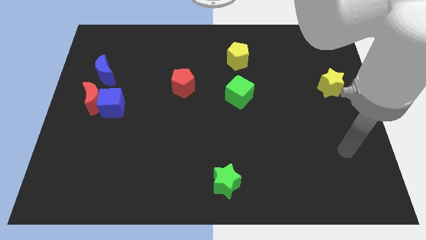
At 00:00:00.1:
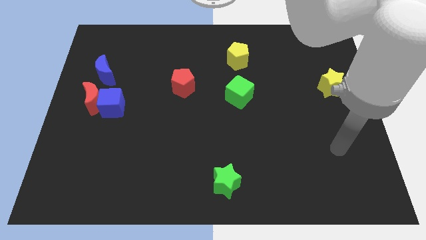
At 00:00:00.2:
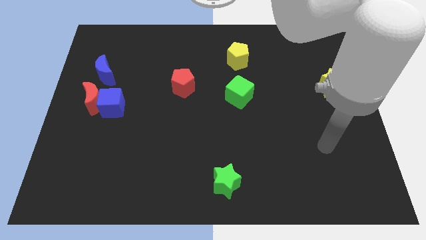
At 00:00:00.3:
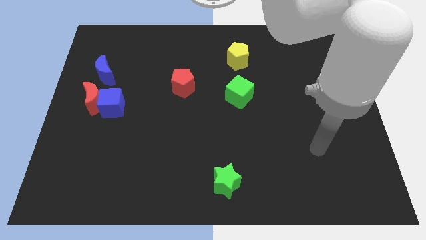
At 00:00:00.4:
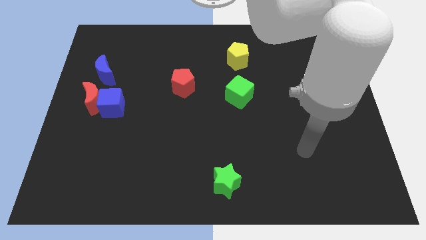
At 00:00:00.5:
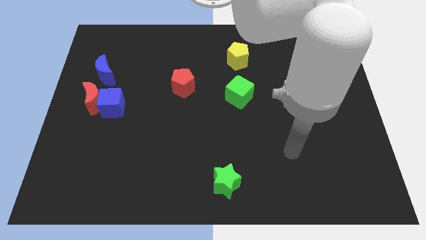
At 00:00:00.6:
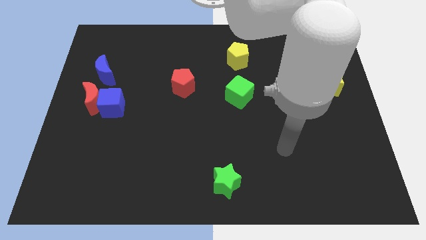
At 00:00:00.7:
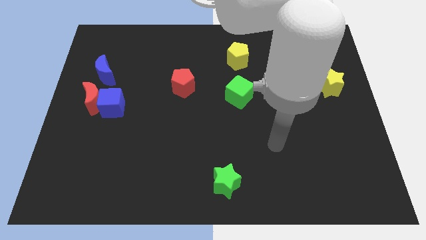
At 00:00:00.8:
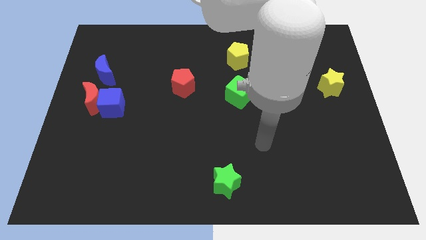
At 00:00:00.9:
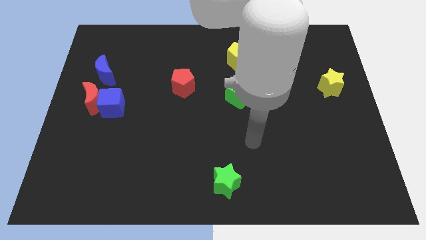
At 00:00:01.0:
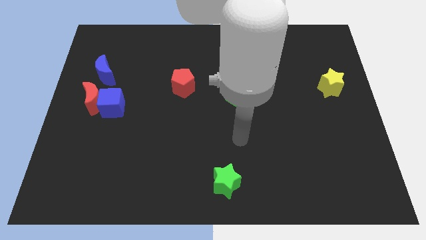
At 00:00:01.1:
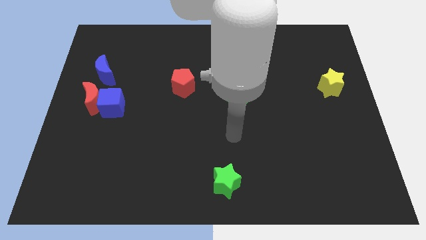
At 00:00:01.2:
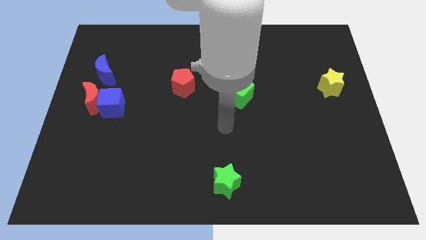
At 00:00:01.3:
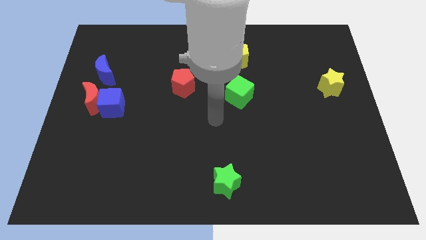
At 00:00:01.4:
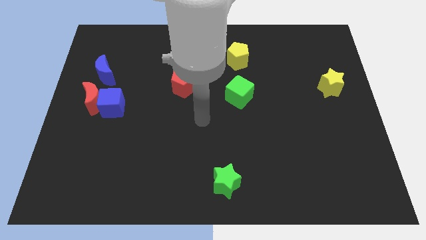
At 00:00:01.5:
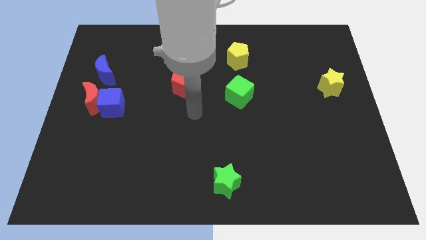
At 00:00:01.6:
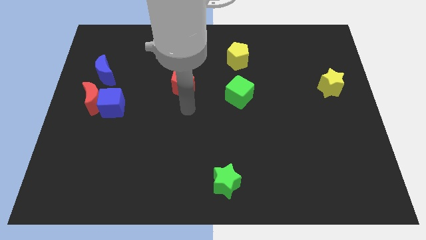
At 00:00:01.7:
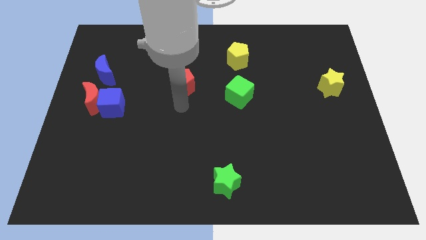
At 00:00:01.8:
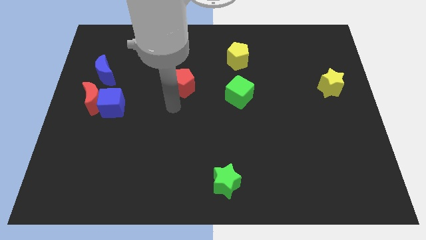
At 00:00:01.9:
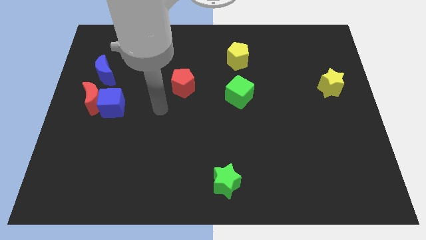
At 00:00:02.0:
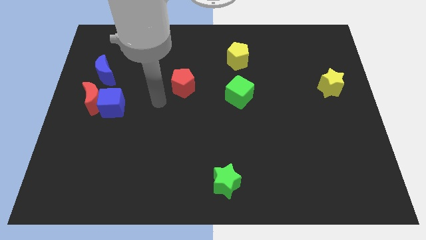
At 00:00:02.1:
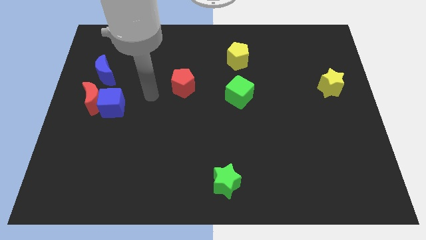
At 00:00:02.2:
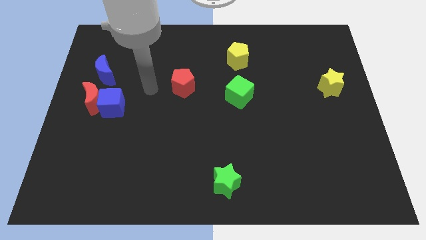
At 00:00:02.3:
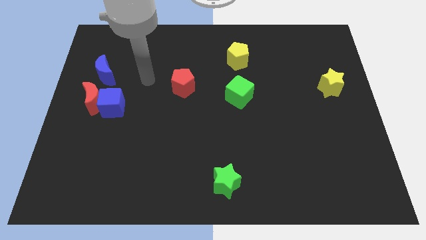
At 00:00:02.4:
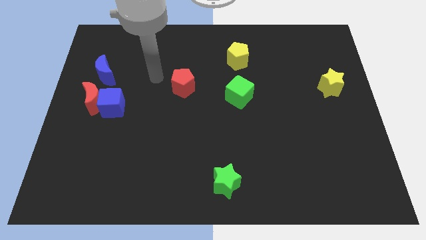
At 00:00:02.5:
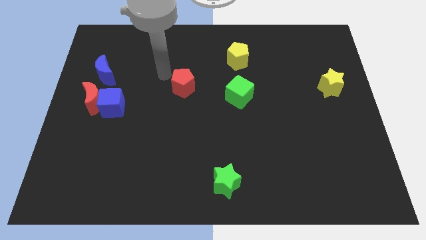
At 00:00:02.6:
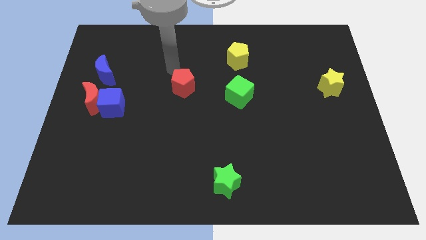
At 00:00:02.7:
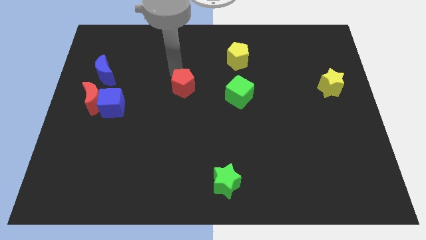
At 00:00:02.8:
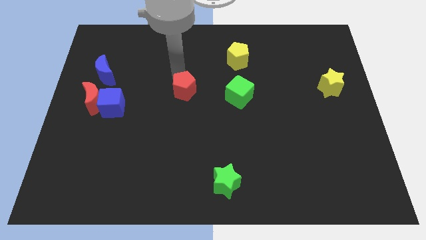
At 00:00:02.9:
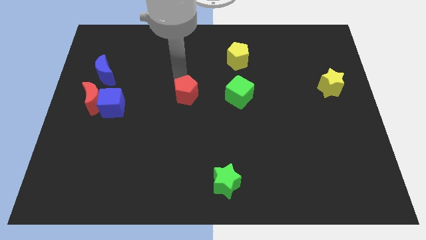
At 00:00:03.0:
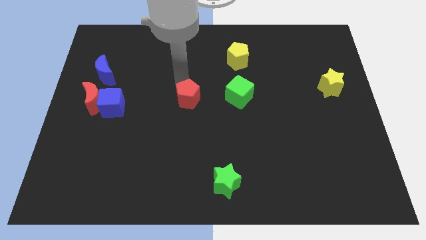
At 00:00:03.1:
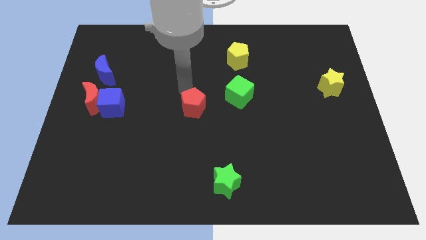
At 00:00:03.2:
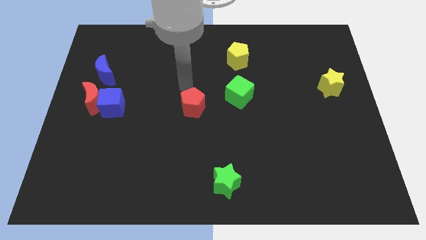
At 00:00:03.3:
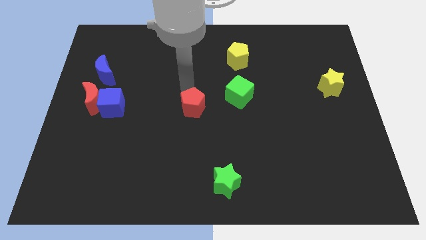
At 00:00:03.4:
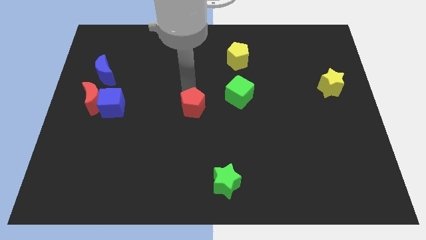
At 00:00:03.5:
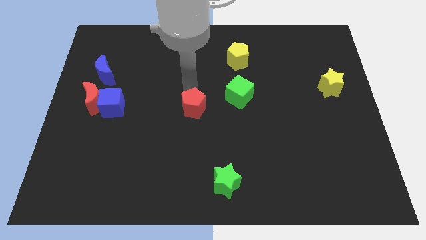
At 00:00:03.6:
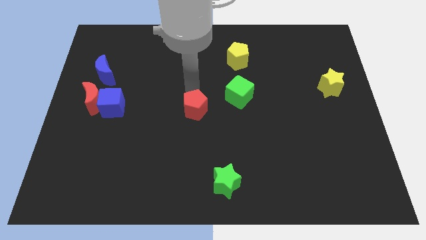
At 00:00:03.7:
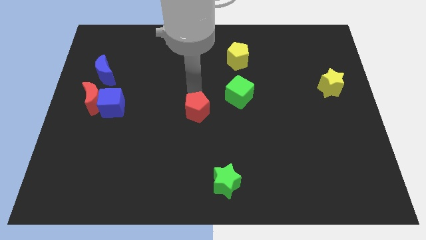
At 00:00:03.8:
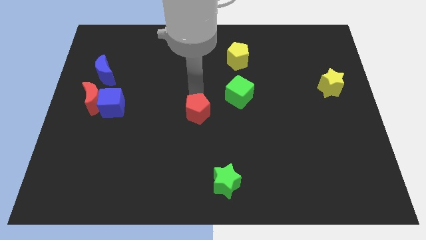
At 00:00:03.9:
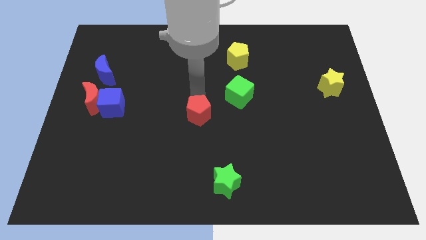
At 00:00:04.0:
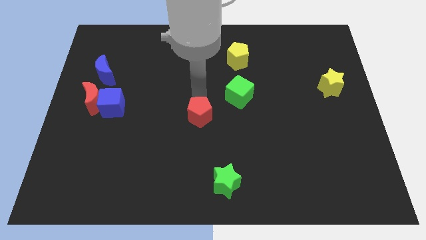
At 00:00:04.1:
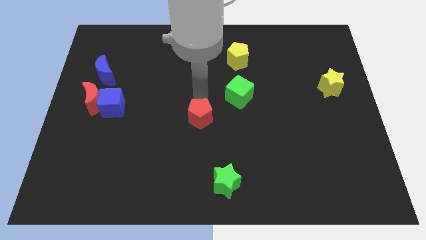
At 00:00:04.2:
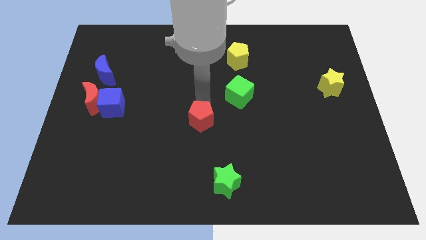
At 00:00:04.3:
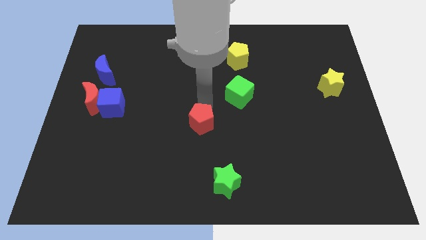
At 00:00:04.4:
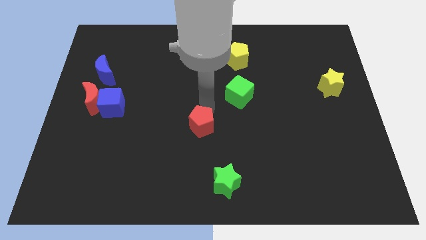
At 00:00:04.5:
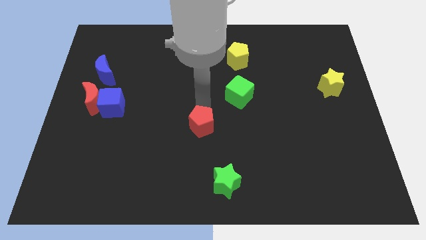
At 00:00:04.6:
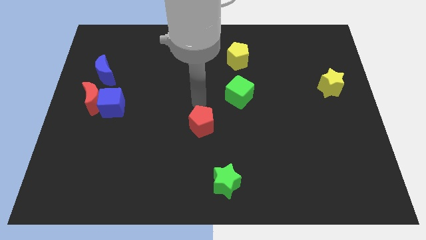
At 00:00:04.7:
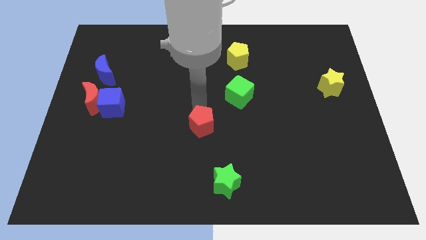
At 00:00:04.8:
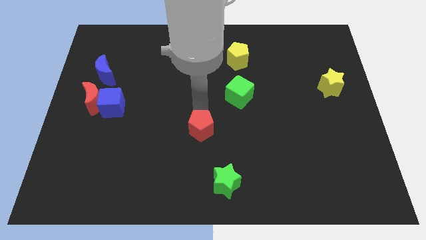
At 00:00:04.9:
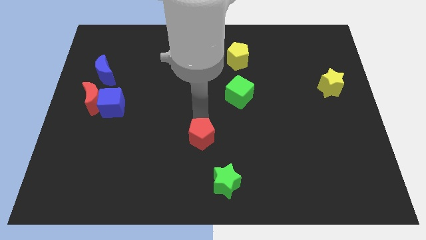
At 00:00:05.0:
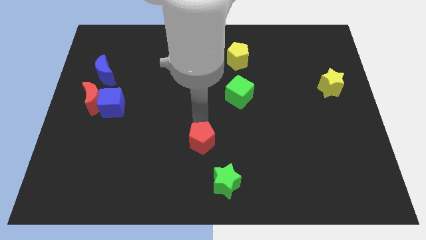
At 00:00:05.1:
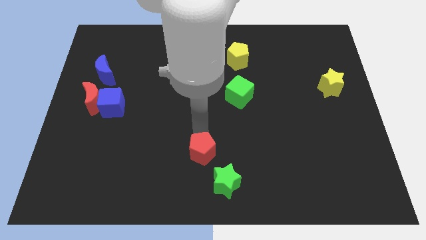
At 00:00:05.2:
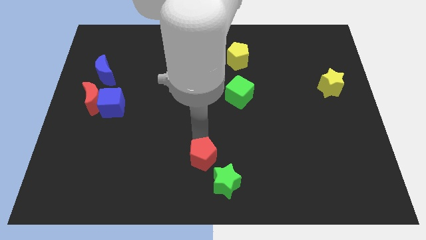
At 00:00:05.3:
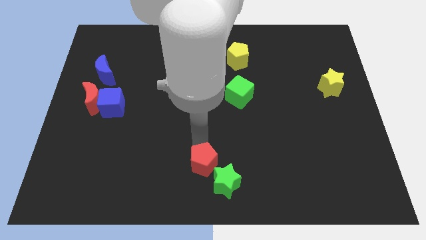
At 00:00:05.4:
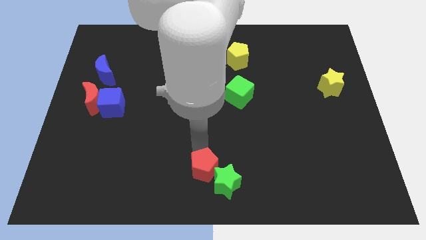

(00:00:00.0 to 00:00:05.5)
push the red pentagon close to the green star

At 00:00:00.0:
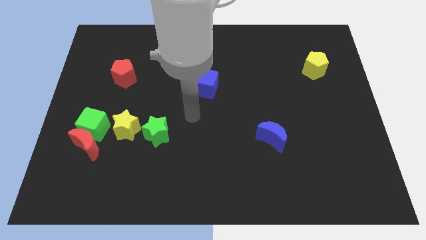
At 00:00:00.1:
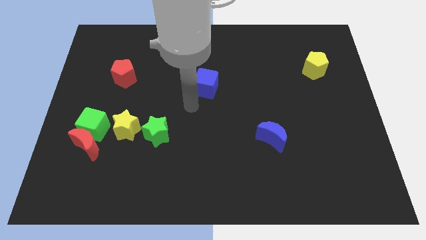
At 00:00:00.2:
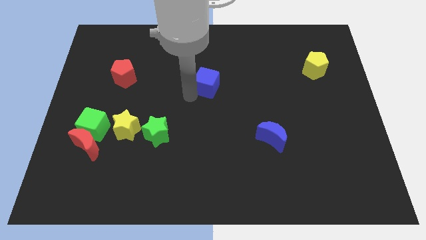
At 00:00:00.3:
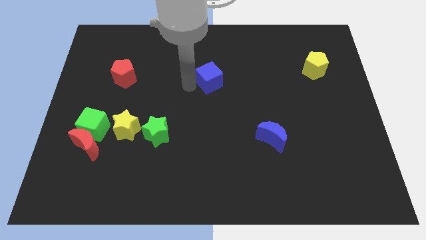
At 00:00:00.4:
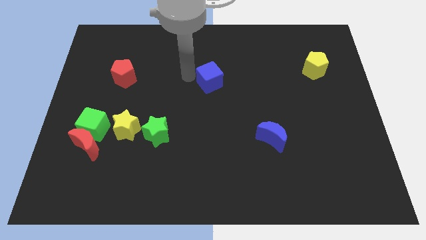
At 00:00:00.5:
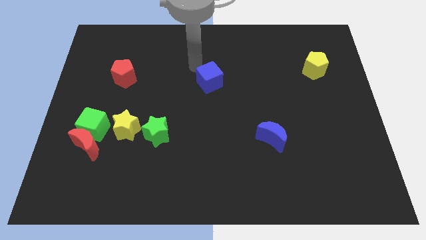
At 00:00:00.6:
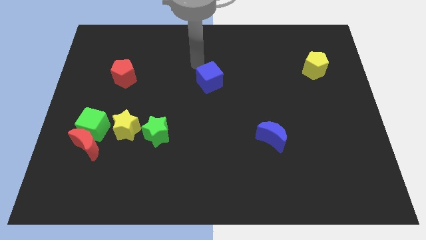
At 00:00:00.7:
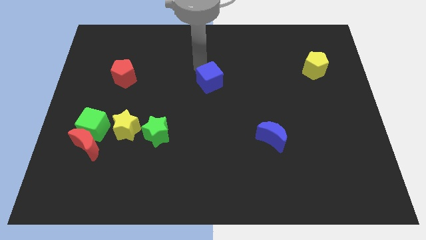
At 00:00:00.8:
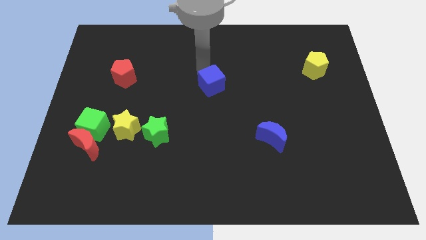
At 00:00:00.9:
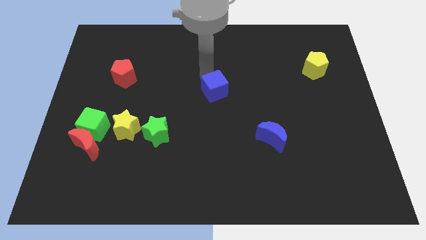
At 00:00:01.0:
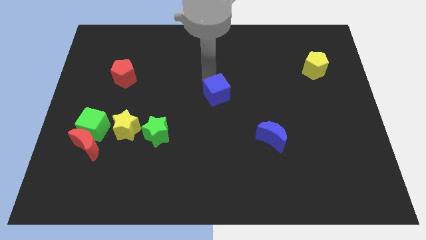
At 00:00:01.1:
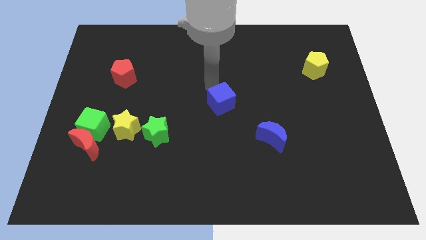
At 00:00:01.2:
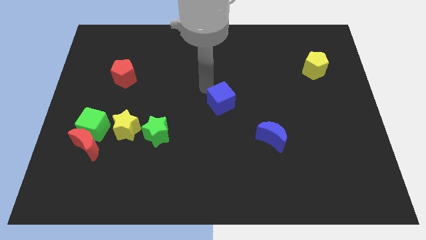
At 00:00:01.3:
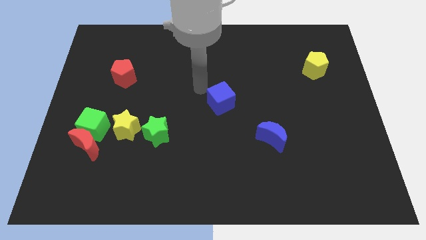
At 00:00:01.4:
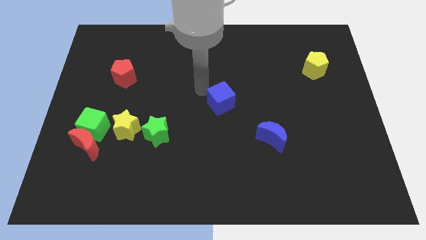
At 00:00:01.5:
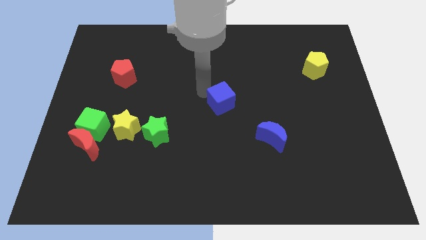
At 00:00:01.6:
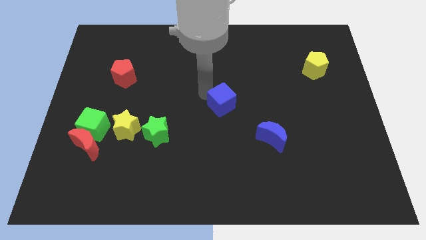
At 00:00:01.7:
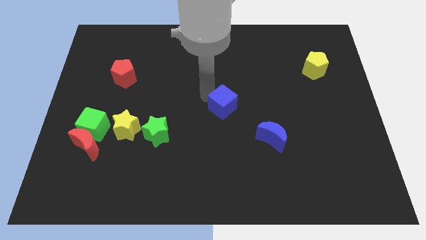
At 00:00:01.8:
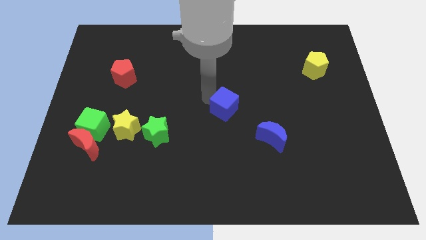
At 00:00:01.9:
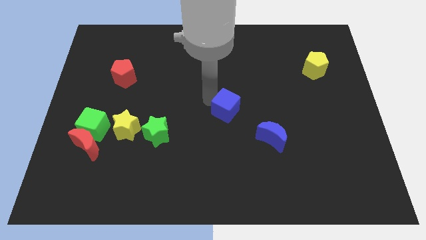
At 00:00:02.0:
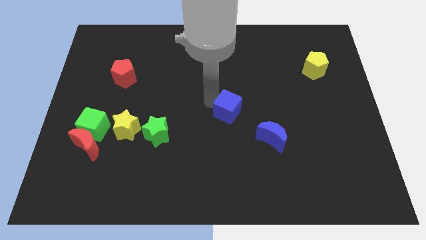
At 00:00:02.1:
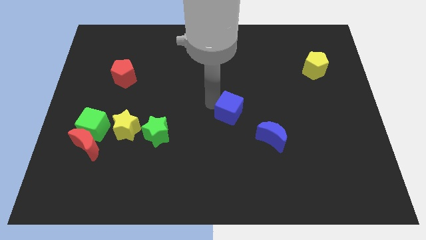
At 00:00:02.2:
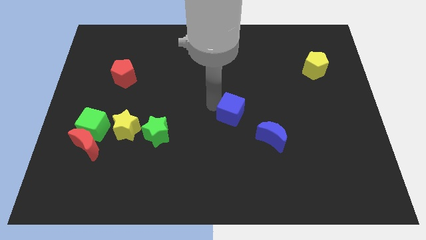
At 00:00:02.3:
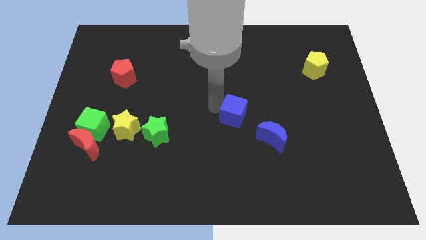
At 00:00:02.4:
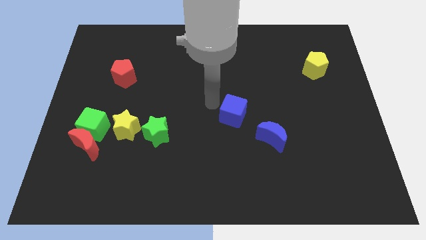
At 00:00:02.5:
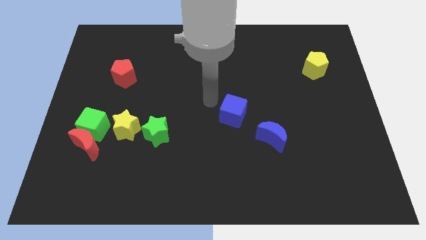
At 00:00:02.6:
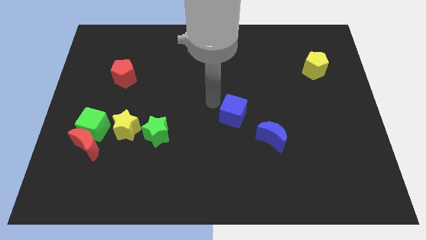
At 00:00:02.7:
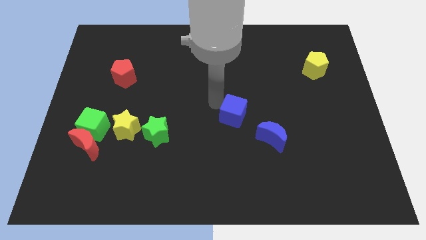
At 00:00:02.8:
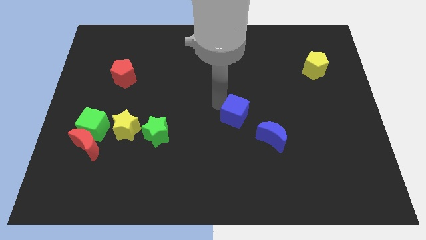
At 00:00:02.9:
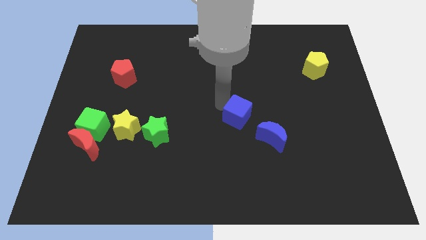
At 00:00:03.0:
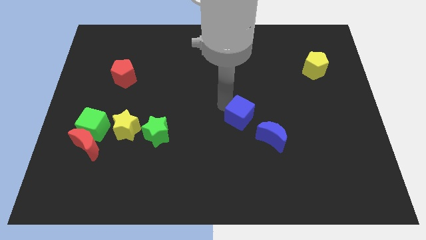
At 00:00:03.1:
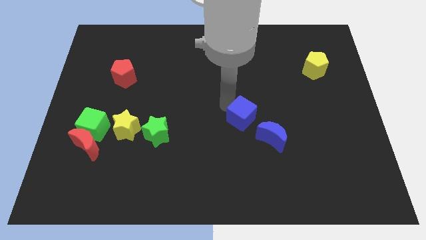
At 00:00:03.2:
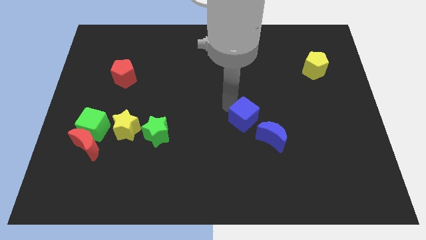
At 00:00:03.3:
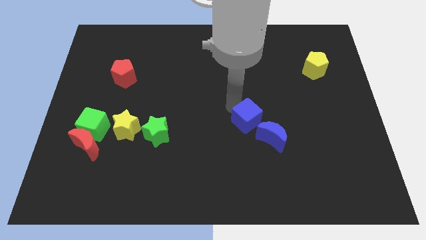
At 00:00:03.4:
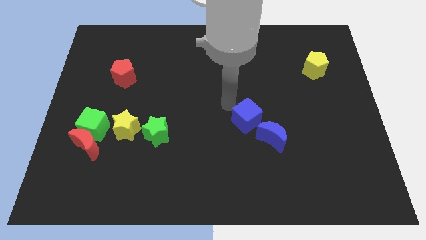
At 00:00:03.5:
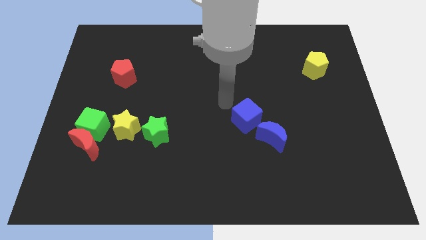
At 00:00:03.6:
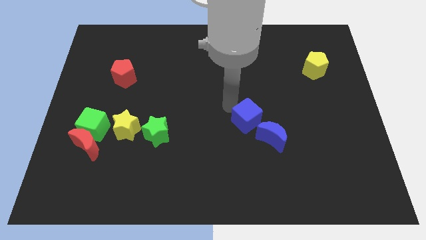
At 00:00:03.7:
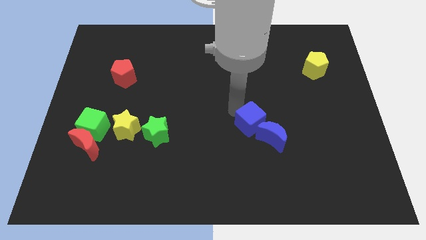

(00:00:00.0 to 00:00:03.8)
push the blue cube to the blue moon
